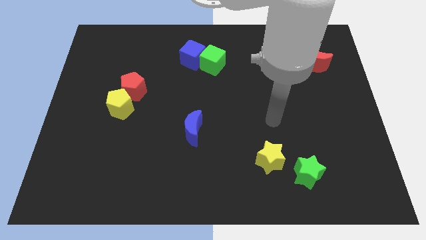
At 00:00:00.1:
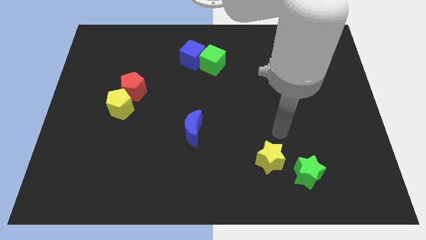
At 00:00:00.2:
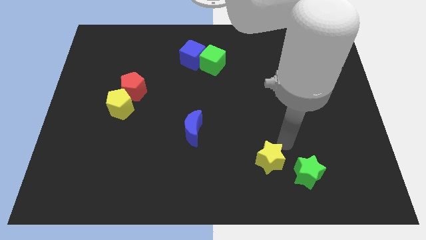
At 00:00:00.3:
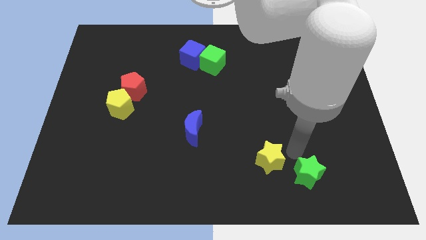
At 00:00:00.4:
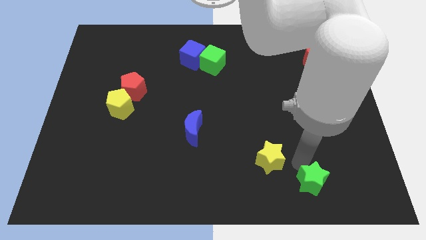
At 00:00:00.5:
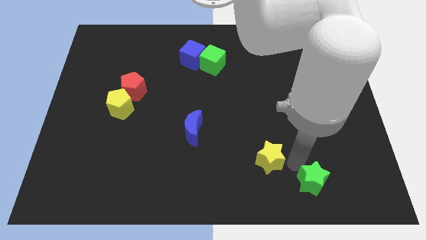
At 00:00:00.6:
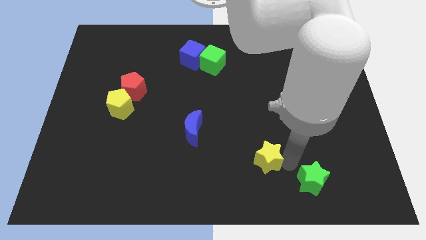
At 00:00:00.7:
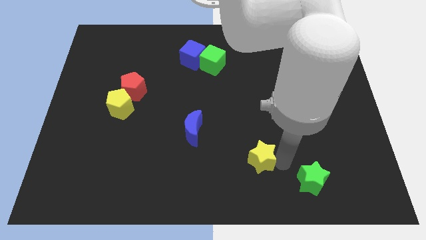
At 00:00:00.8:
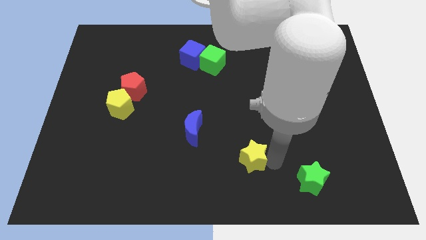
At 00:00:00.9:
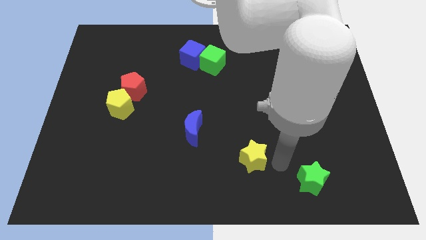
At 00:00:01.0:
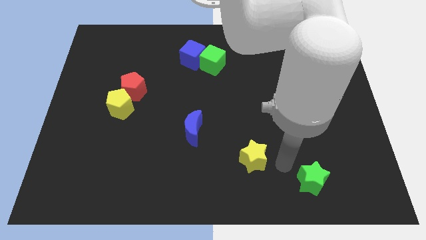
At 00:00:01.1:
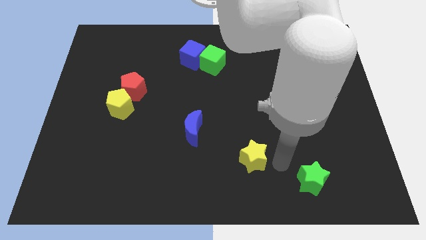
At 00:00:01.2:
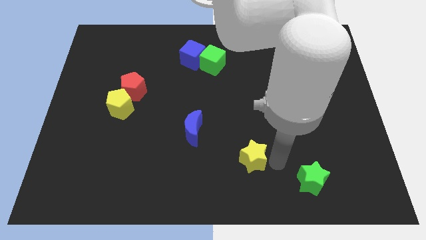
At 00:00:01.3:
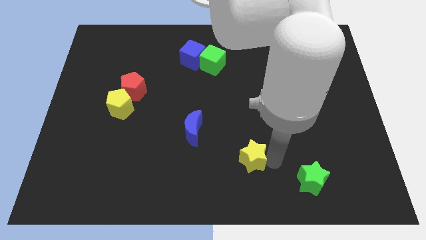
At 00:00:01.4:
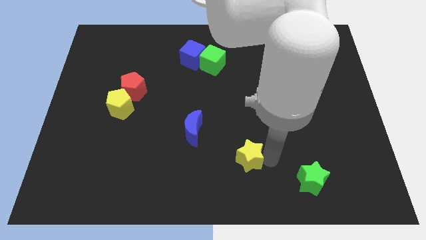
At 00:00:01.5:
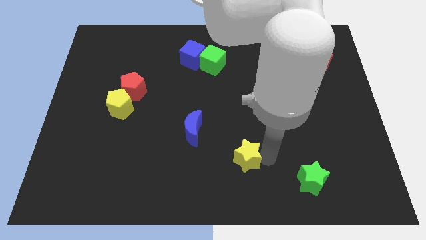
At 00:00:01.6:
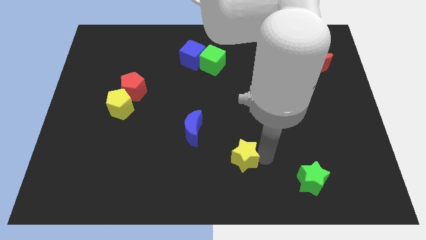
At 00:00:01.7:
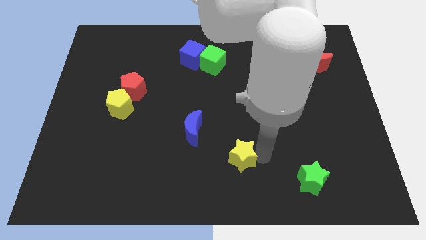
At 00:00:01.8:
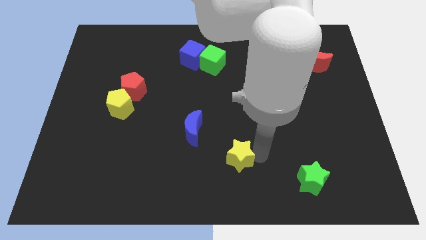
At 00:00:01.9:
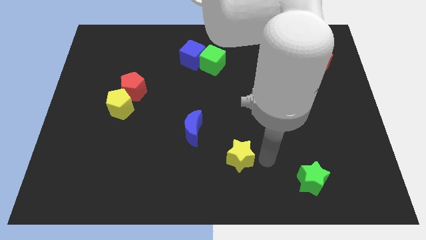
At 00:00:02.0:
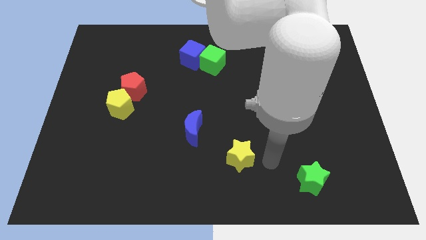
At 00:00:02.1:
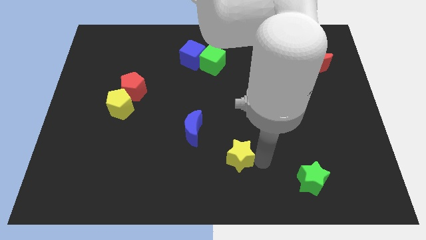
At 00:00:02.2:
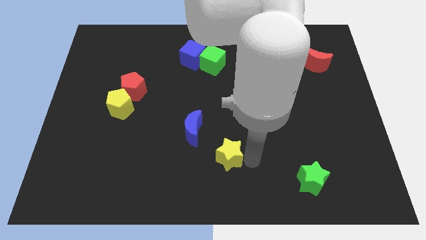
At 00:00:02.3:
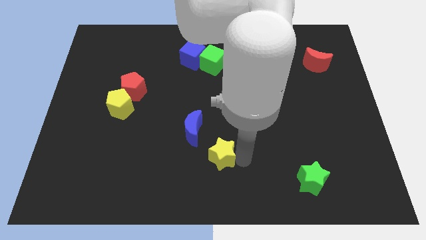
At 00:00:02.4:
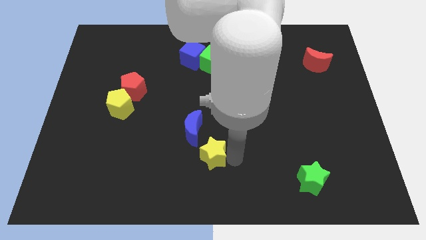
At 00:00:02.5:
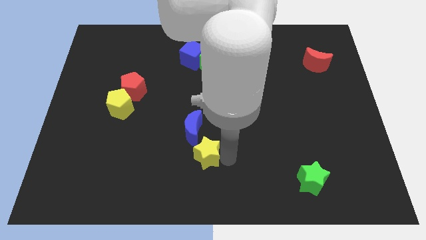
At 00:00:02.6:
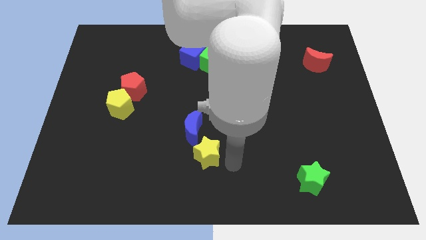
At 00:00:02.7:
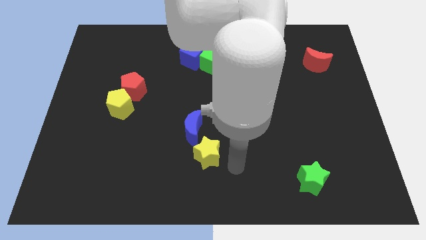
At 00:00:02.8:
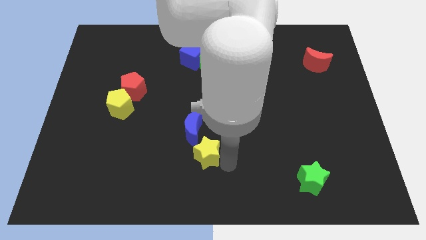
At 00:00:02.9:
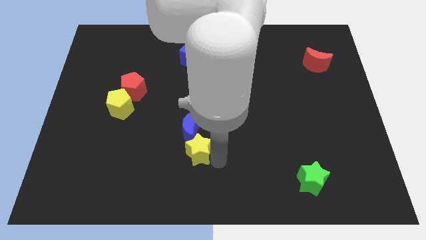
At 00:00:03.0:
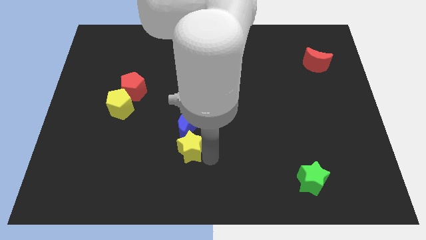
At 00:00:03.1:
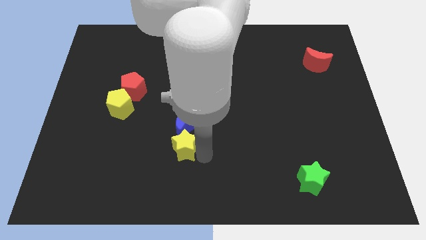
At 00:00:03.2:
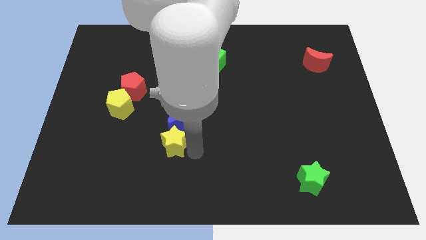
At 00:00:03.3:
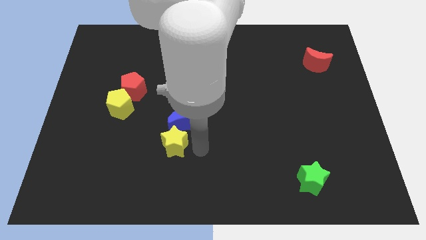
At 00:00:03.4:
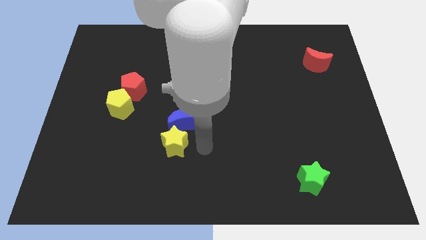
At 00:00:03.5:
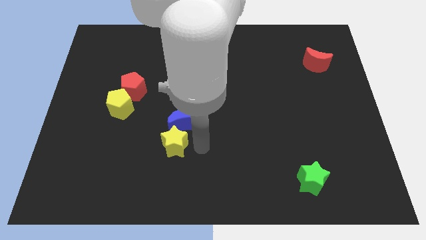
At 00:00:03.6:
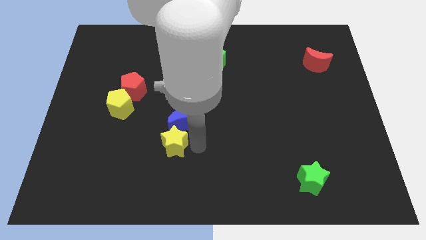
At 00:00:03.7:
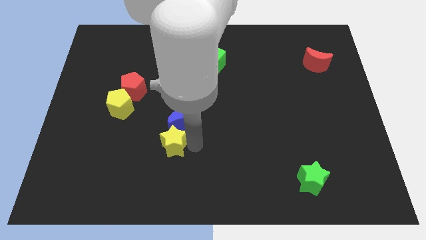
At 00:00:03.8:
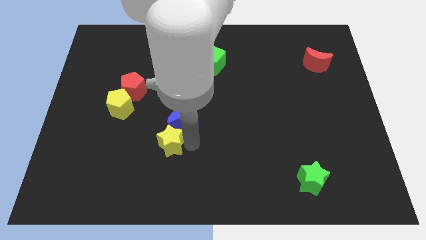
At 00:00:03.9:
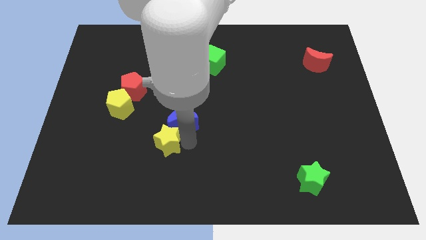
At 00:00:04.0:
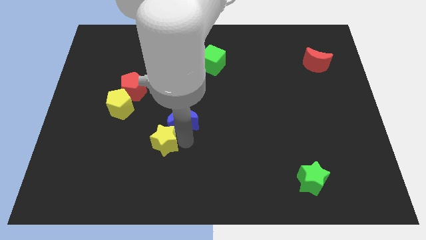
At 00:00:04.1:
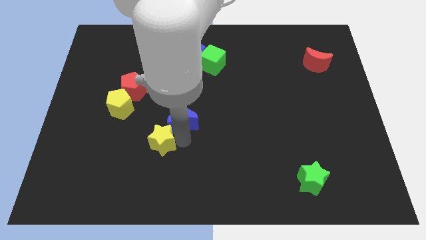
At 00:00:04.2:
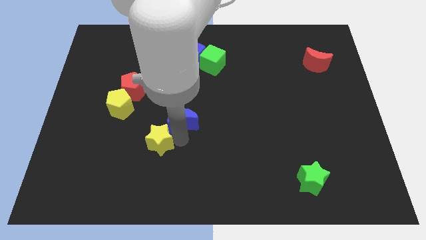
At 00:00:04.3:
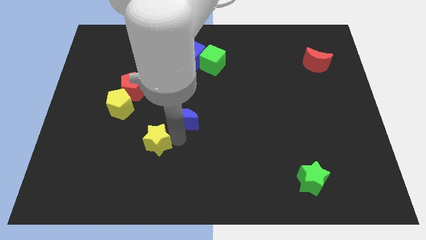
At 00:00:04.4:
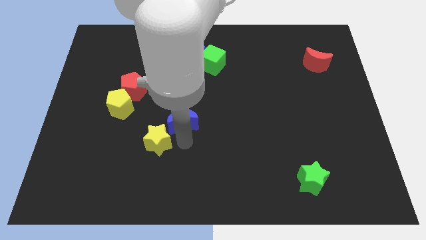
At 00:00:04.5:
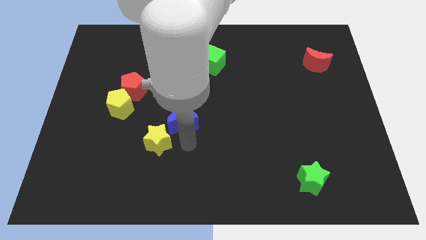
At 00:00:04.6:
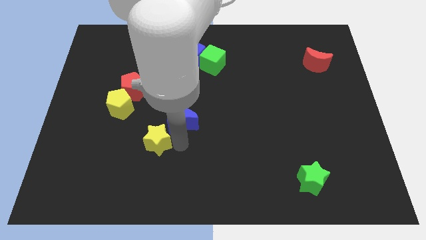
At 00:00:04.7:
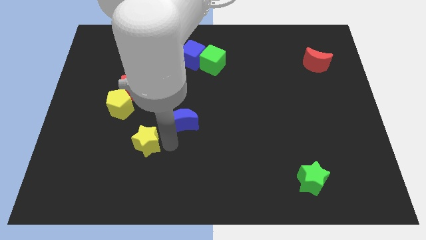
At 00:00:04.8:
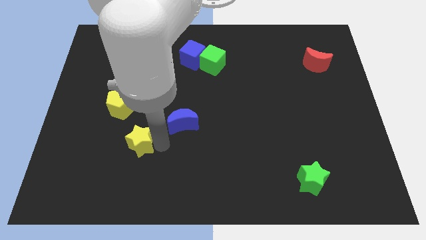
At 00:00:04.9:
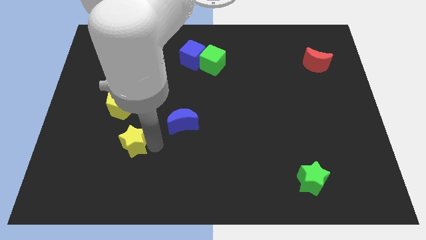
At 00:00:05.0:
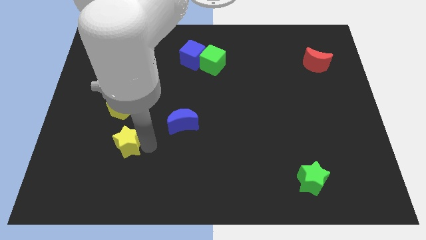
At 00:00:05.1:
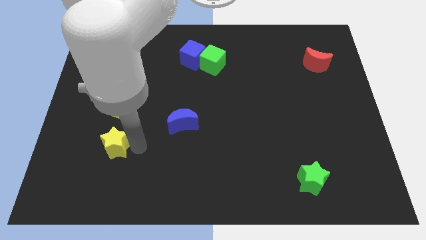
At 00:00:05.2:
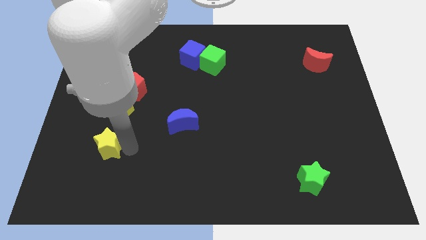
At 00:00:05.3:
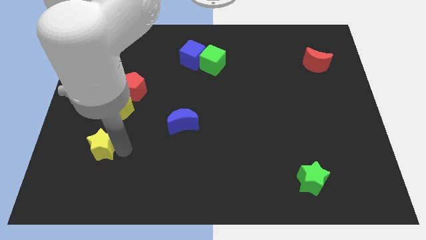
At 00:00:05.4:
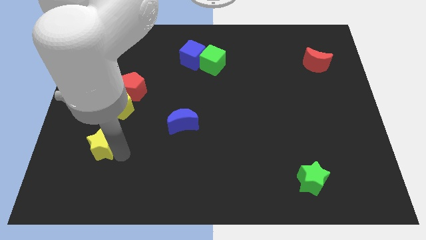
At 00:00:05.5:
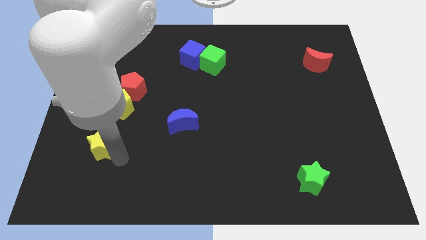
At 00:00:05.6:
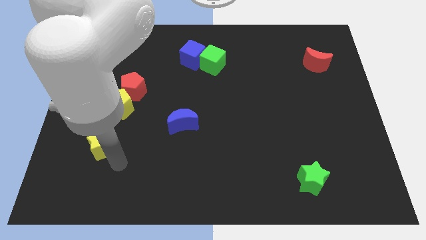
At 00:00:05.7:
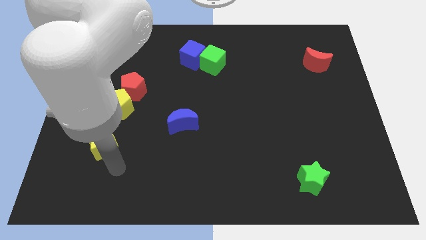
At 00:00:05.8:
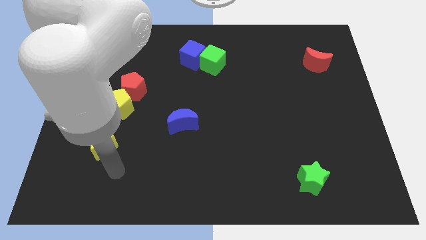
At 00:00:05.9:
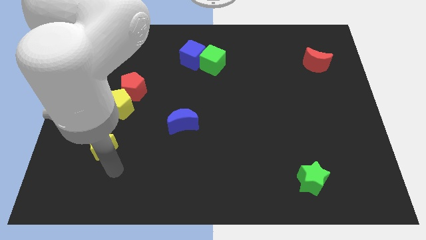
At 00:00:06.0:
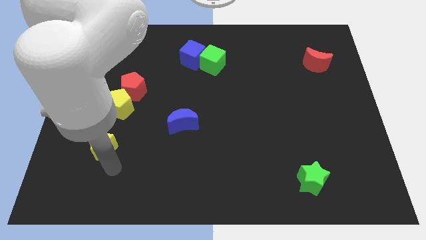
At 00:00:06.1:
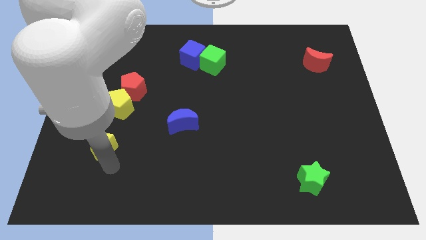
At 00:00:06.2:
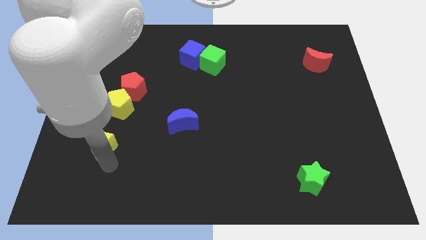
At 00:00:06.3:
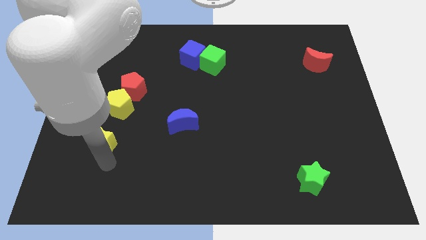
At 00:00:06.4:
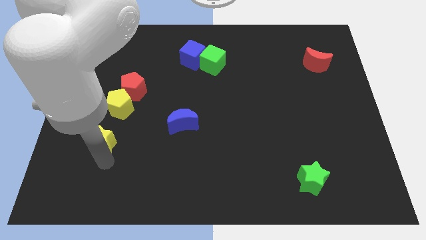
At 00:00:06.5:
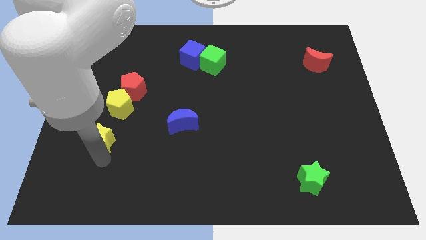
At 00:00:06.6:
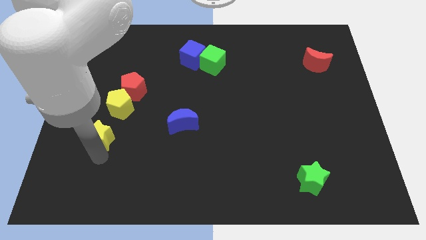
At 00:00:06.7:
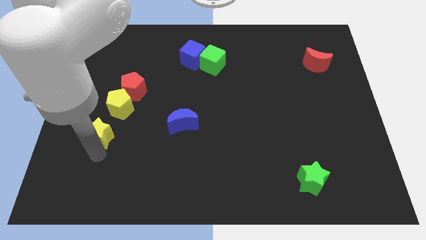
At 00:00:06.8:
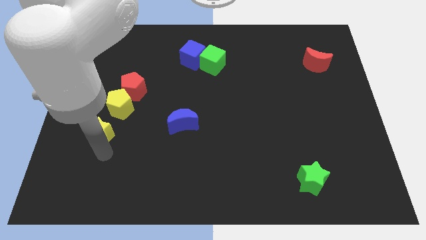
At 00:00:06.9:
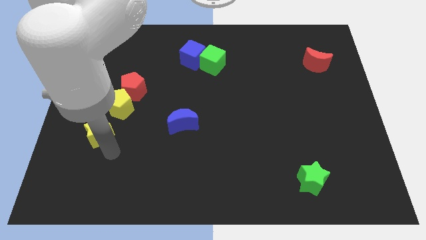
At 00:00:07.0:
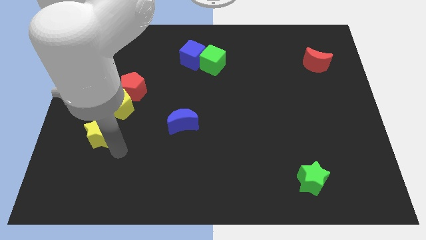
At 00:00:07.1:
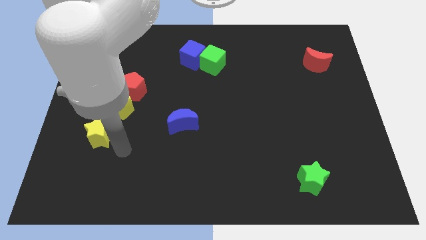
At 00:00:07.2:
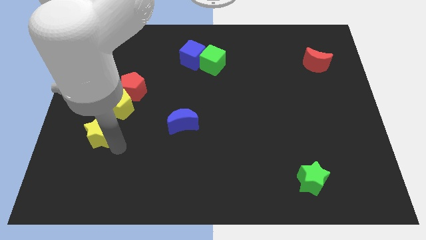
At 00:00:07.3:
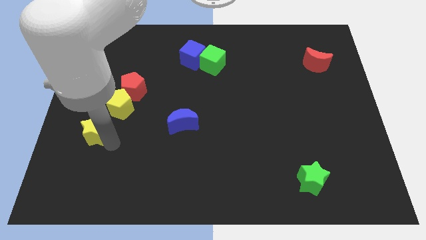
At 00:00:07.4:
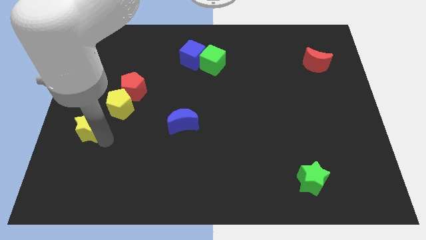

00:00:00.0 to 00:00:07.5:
put the yellow star to the center left
